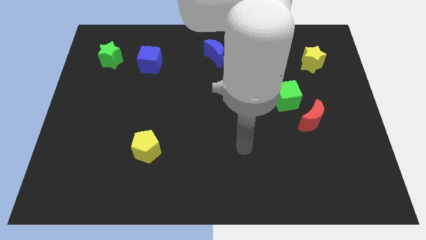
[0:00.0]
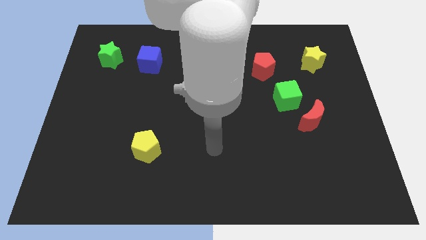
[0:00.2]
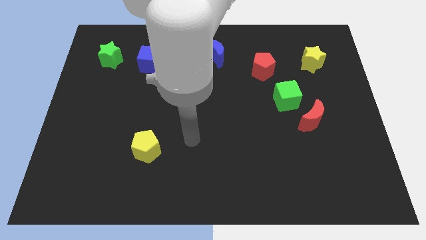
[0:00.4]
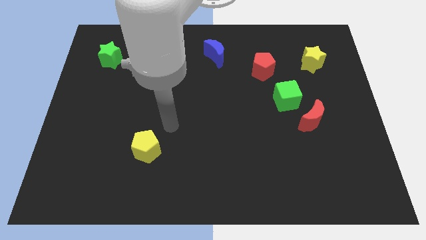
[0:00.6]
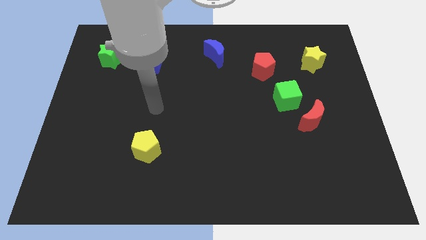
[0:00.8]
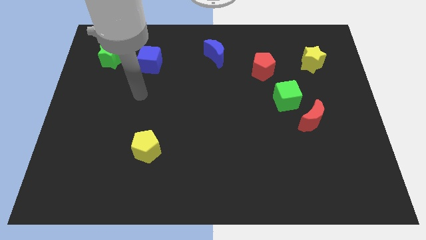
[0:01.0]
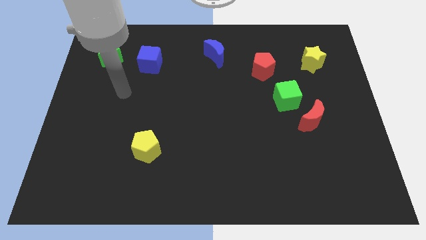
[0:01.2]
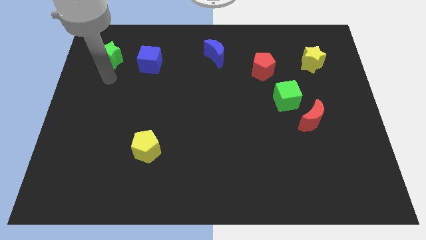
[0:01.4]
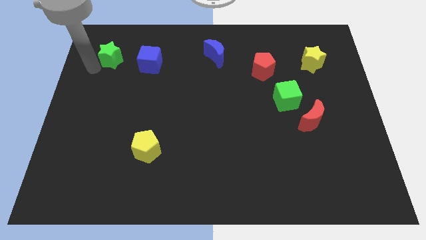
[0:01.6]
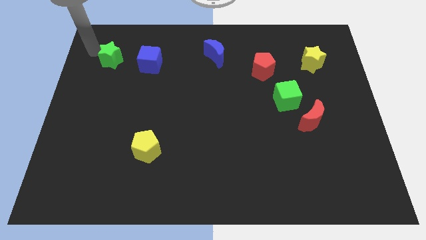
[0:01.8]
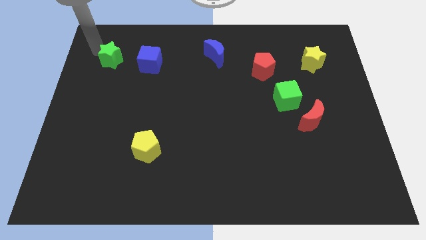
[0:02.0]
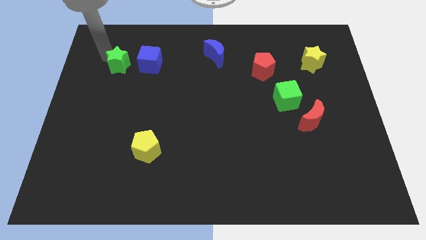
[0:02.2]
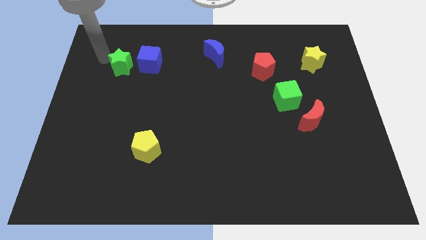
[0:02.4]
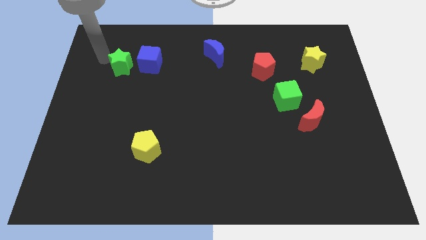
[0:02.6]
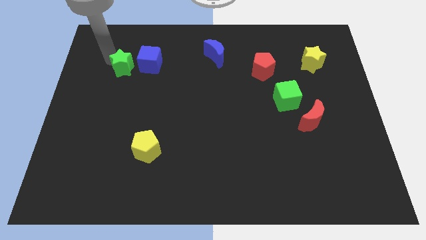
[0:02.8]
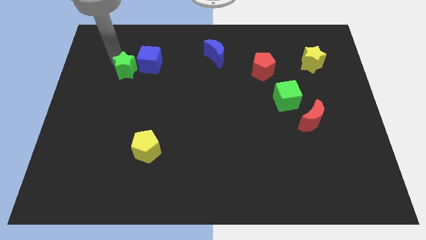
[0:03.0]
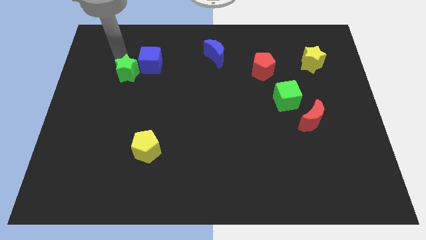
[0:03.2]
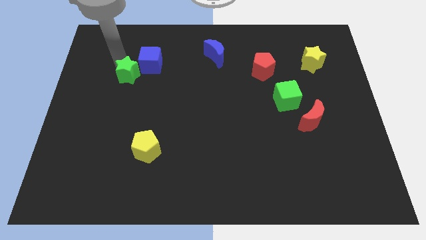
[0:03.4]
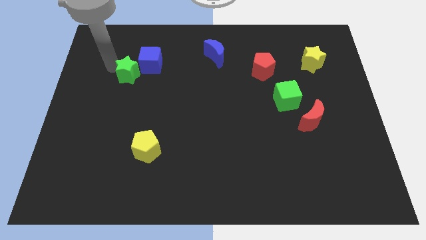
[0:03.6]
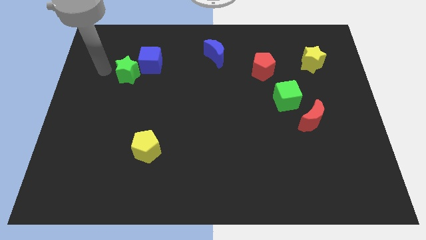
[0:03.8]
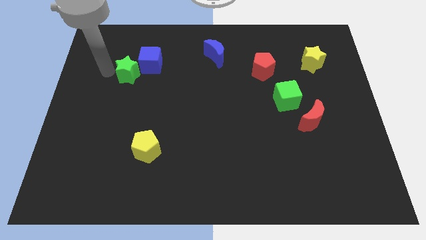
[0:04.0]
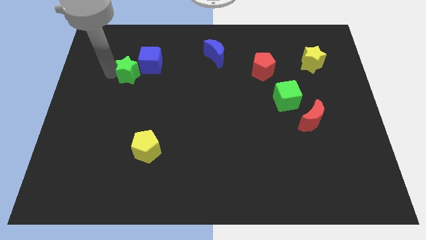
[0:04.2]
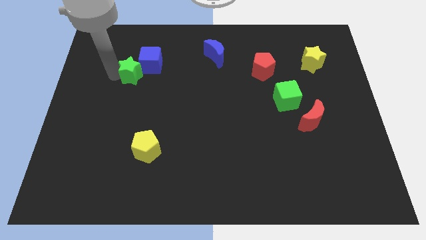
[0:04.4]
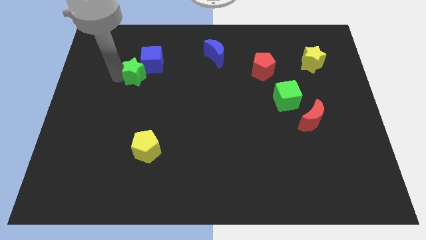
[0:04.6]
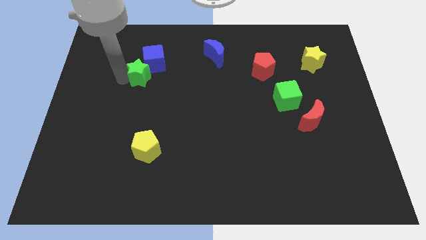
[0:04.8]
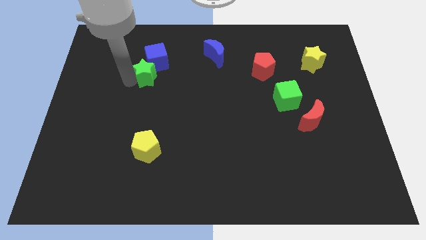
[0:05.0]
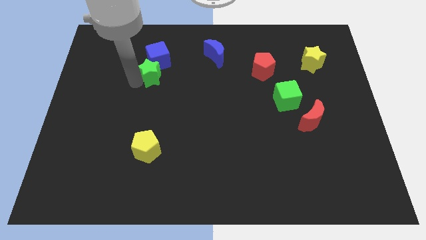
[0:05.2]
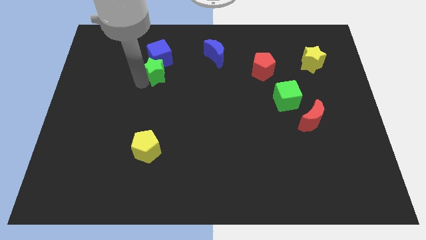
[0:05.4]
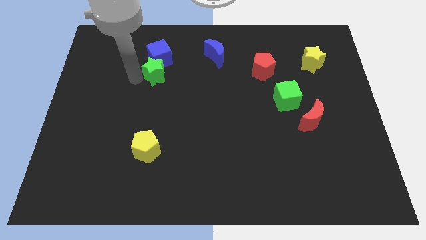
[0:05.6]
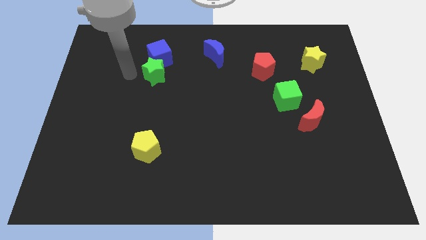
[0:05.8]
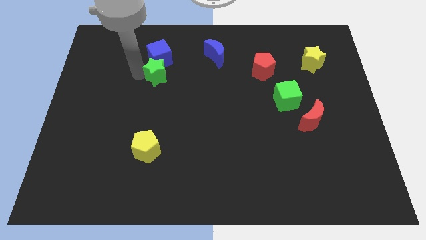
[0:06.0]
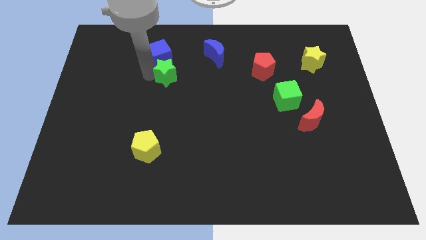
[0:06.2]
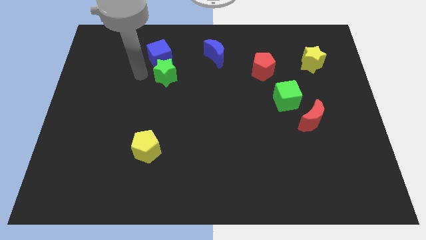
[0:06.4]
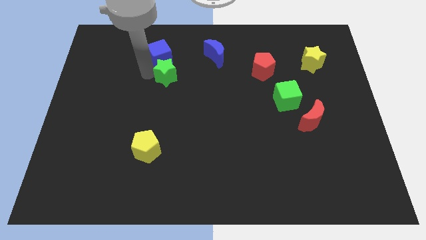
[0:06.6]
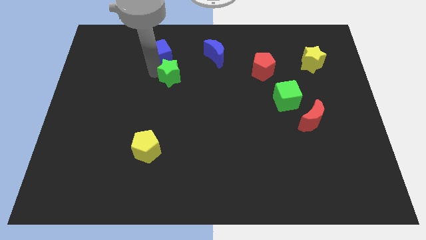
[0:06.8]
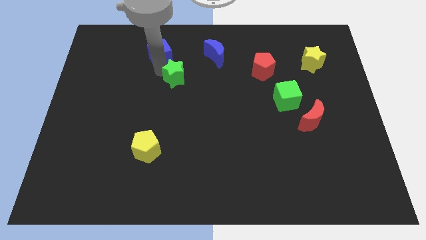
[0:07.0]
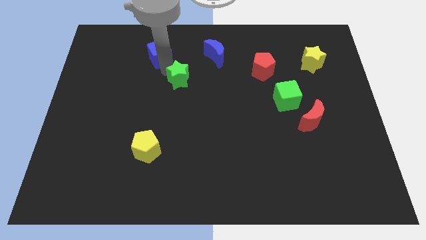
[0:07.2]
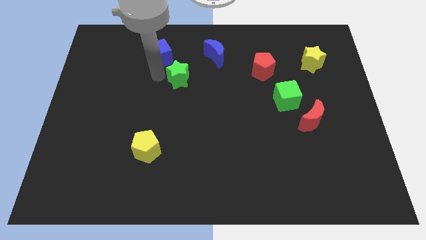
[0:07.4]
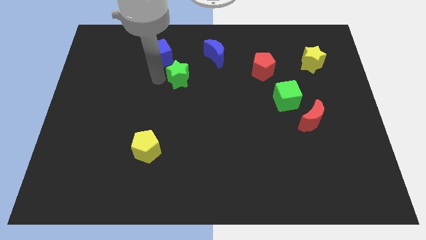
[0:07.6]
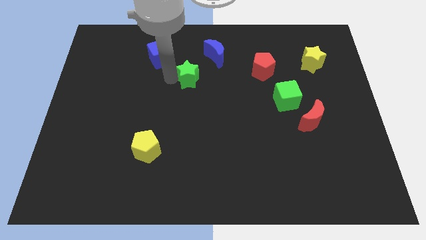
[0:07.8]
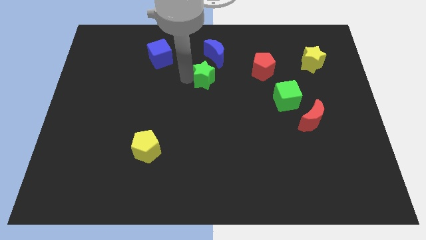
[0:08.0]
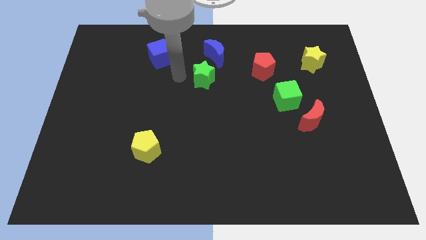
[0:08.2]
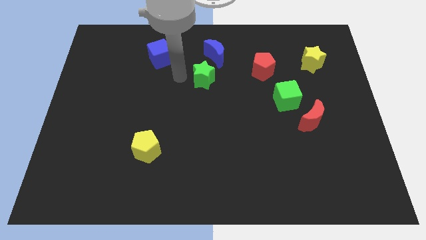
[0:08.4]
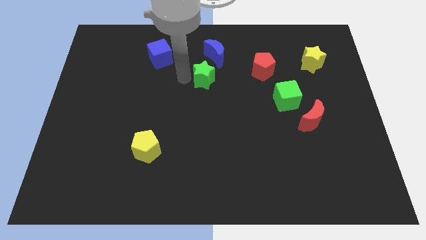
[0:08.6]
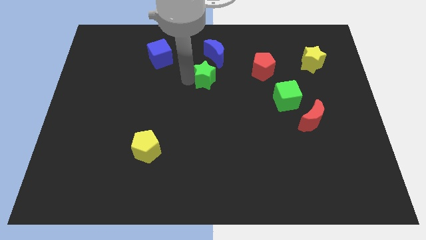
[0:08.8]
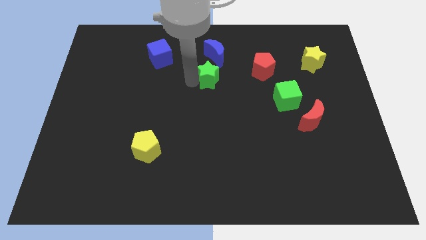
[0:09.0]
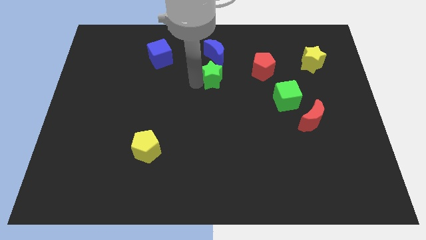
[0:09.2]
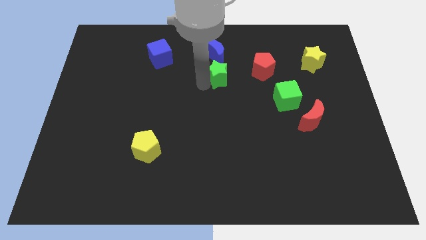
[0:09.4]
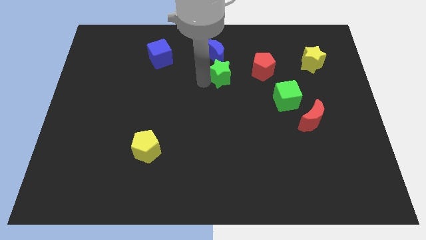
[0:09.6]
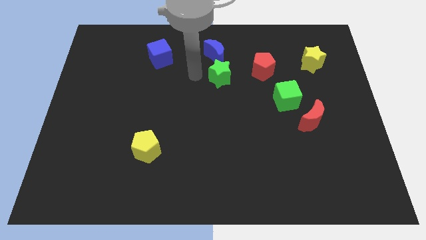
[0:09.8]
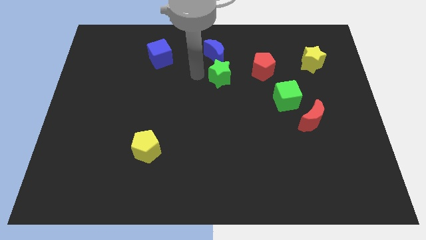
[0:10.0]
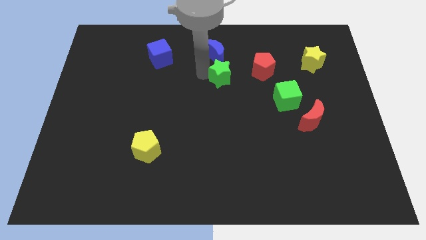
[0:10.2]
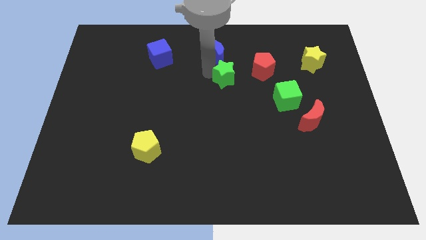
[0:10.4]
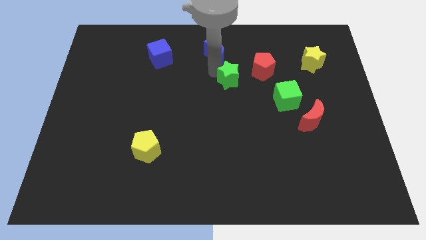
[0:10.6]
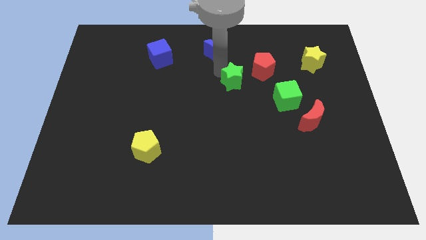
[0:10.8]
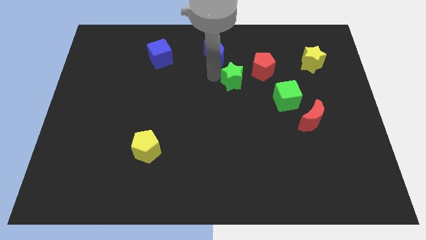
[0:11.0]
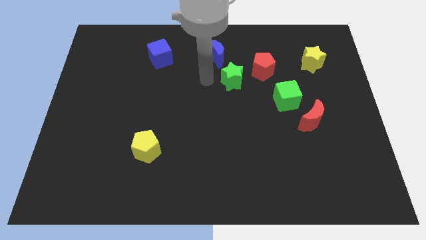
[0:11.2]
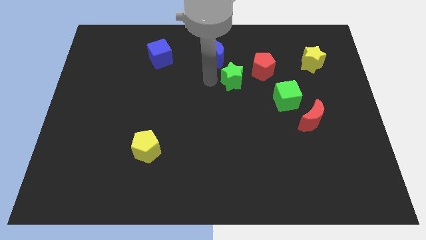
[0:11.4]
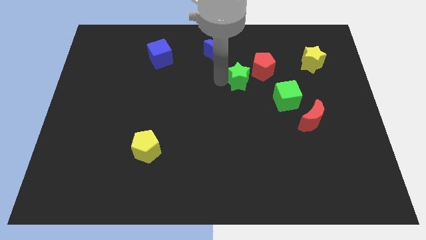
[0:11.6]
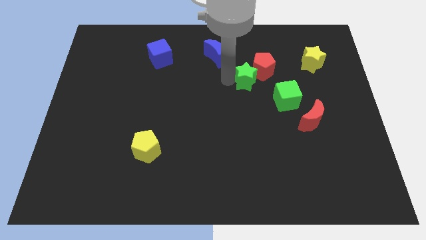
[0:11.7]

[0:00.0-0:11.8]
slide the green star to the top left of the green cube
